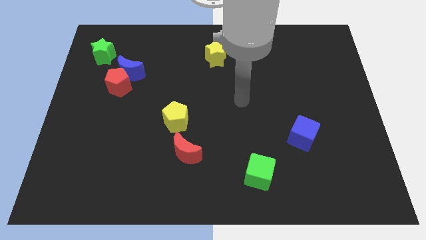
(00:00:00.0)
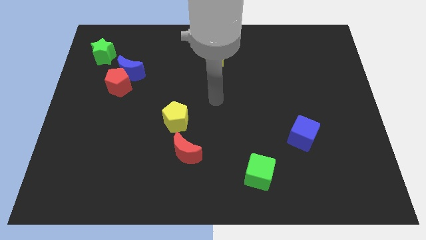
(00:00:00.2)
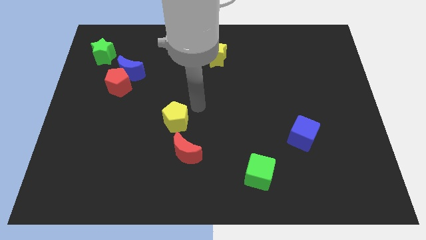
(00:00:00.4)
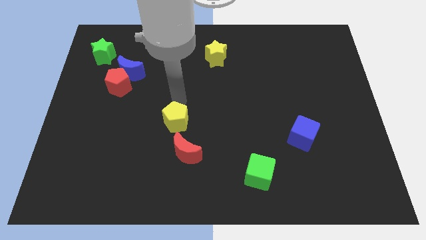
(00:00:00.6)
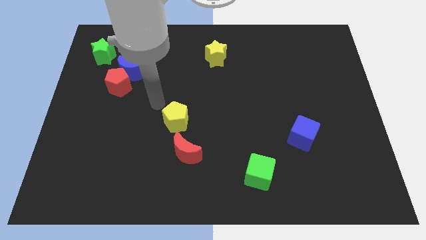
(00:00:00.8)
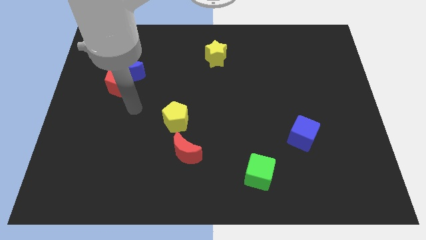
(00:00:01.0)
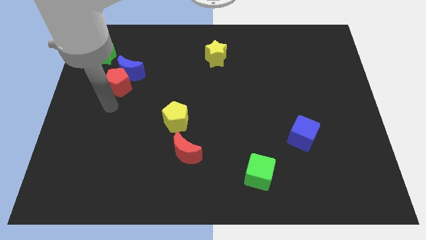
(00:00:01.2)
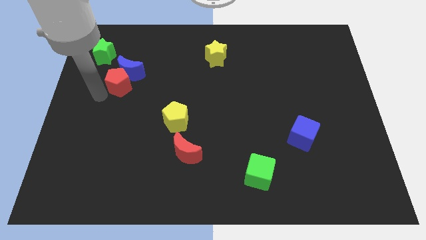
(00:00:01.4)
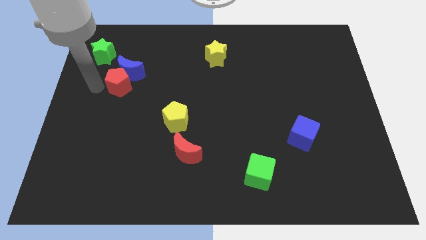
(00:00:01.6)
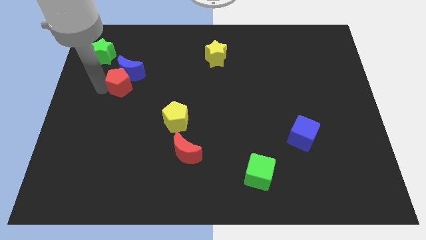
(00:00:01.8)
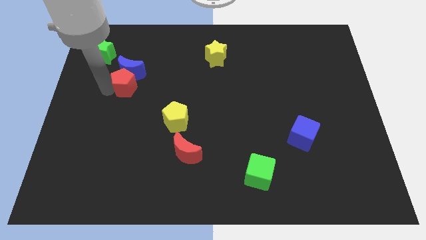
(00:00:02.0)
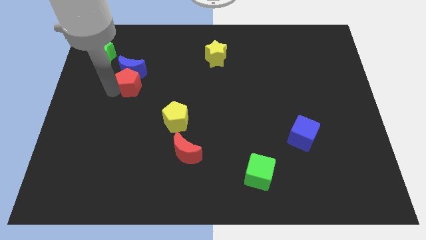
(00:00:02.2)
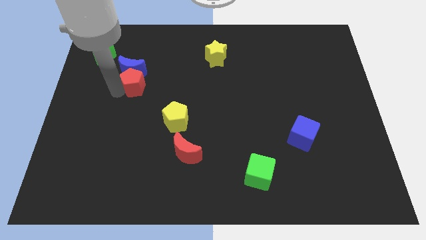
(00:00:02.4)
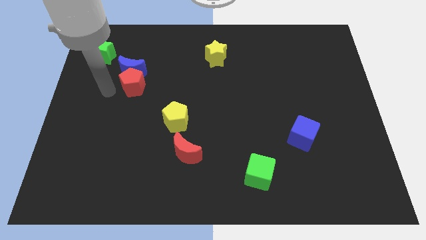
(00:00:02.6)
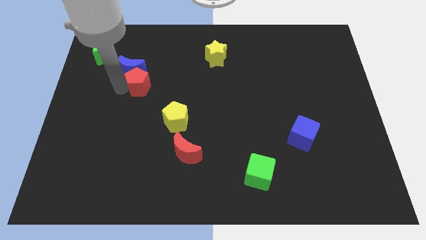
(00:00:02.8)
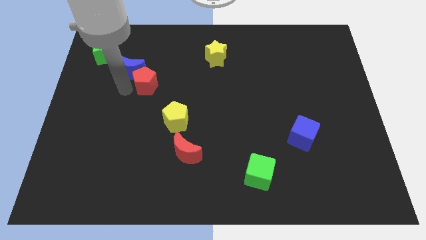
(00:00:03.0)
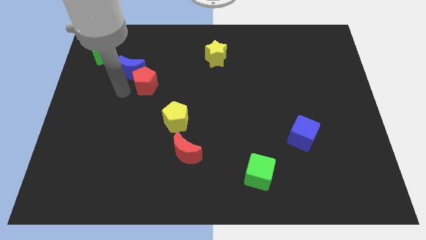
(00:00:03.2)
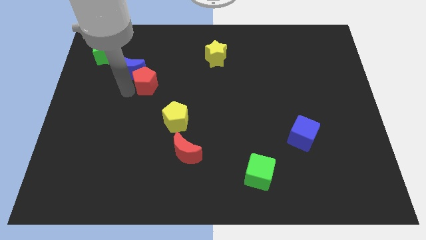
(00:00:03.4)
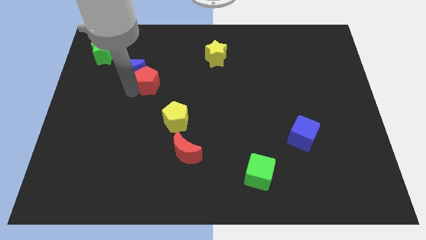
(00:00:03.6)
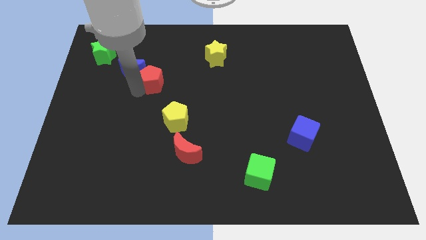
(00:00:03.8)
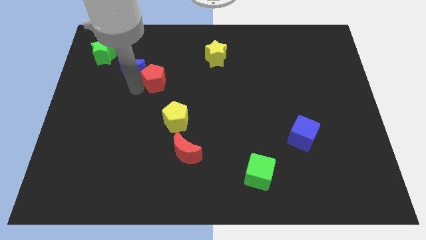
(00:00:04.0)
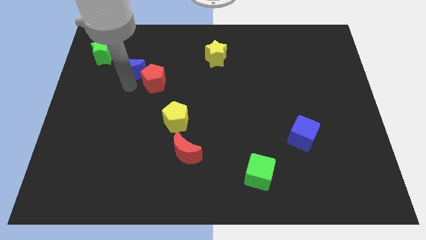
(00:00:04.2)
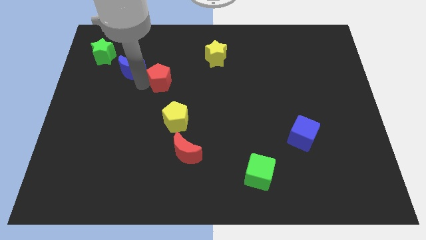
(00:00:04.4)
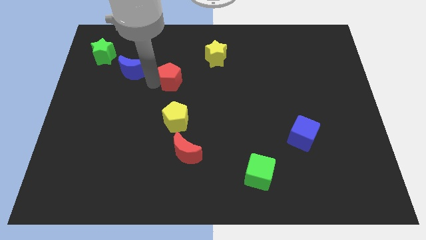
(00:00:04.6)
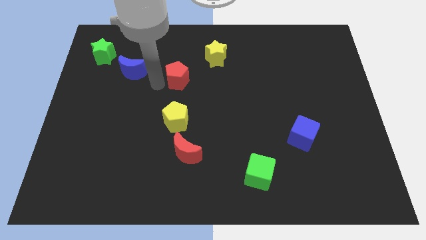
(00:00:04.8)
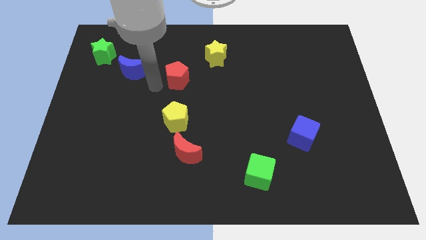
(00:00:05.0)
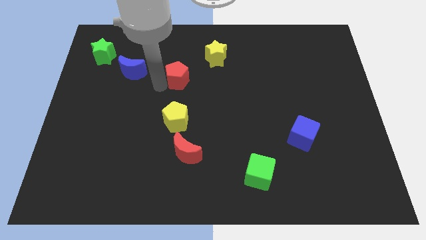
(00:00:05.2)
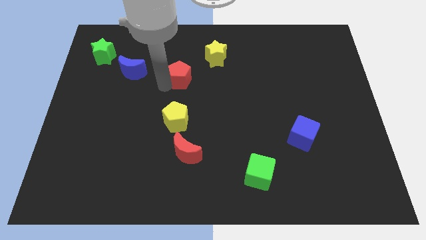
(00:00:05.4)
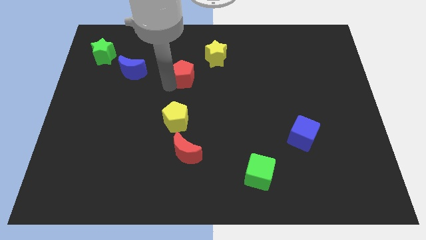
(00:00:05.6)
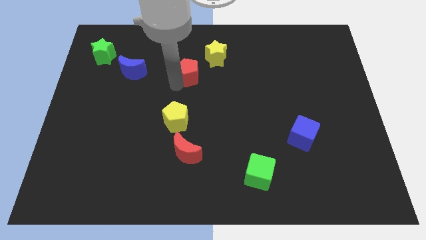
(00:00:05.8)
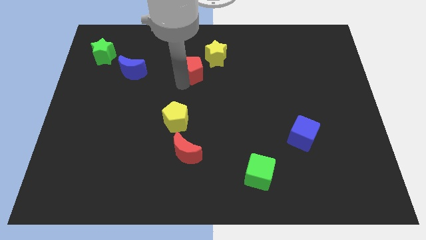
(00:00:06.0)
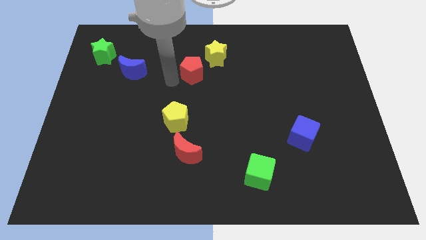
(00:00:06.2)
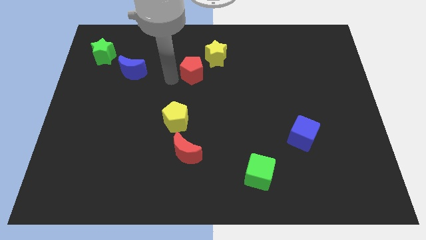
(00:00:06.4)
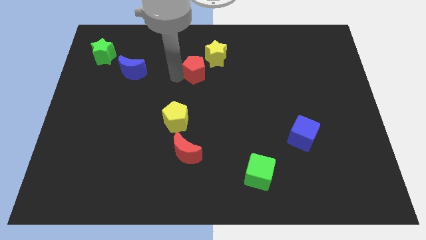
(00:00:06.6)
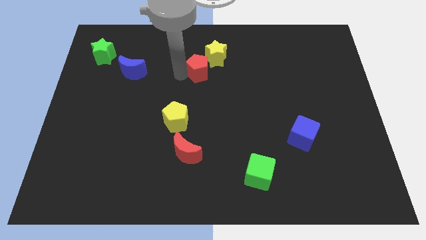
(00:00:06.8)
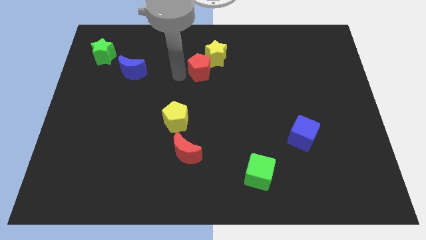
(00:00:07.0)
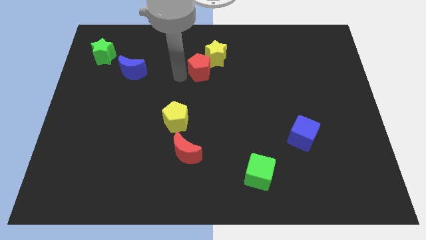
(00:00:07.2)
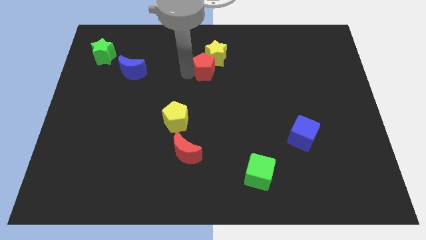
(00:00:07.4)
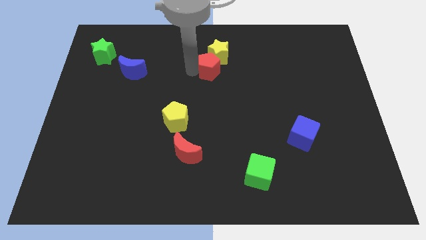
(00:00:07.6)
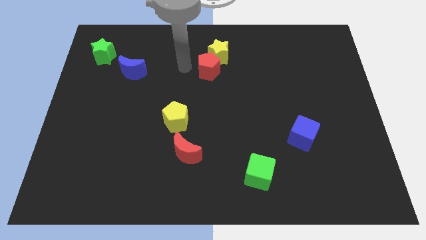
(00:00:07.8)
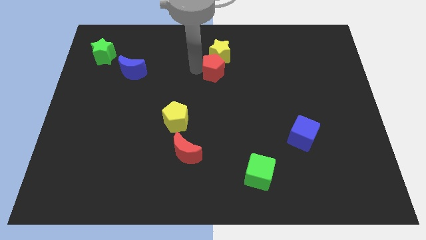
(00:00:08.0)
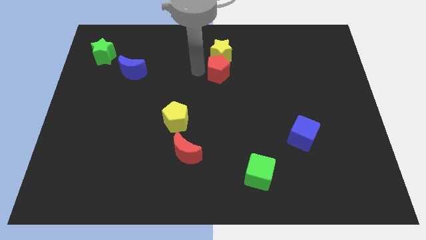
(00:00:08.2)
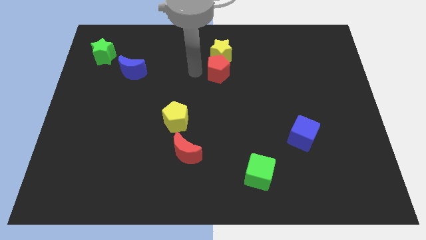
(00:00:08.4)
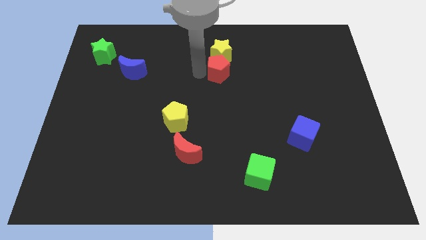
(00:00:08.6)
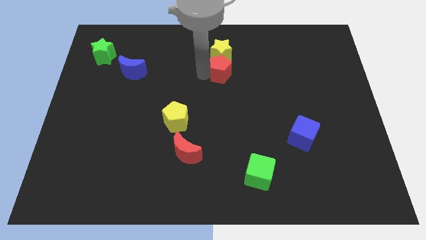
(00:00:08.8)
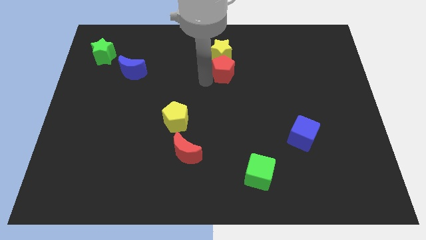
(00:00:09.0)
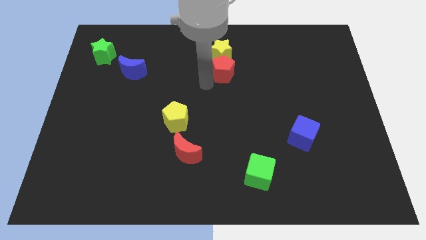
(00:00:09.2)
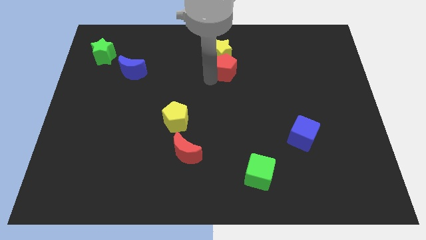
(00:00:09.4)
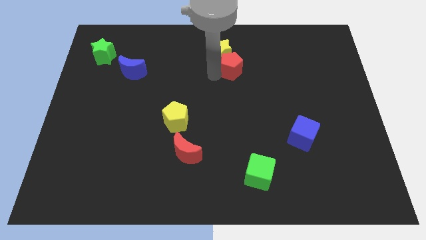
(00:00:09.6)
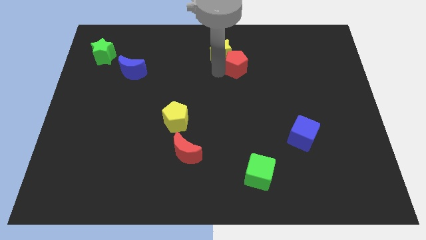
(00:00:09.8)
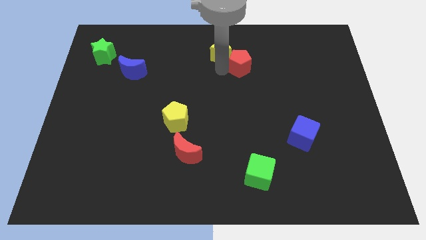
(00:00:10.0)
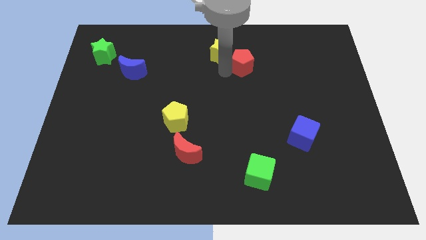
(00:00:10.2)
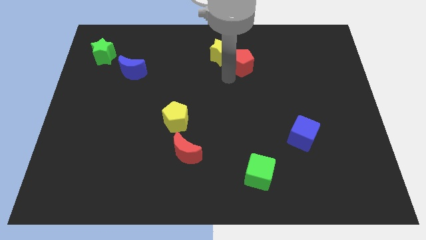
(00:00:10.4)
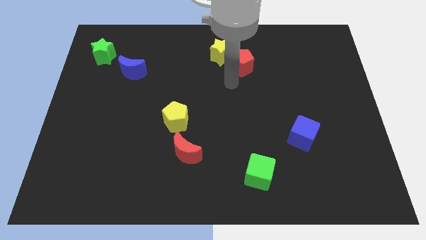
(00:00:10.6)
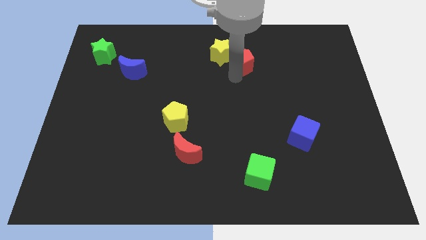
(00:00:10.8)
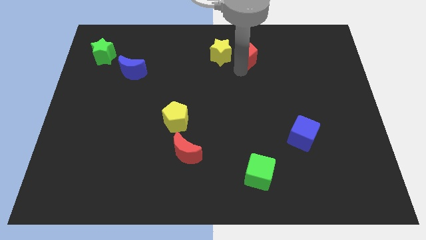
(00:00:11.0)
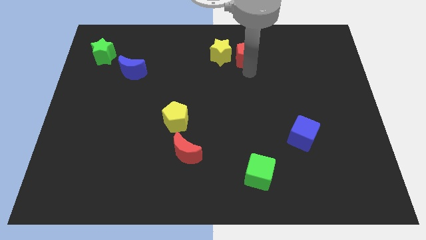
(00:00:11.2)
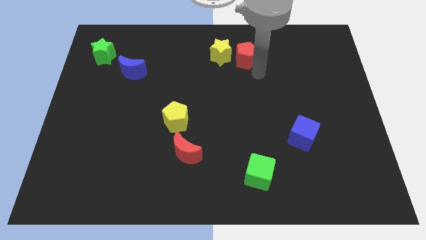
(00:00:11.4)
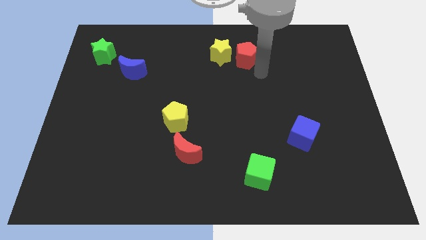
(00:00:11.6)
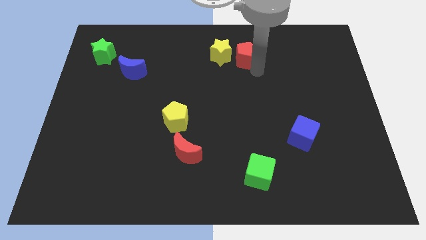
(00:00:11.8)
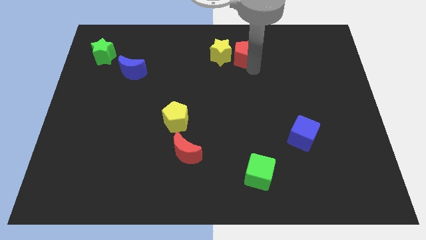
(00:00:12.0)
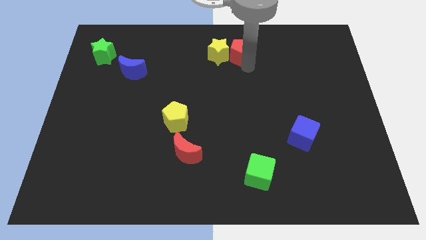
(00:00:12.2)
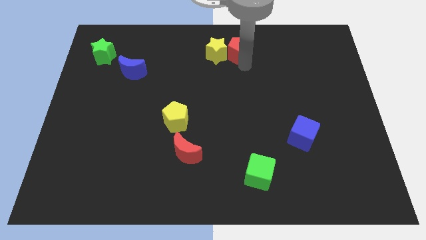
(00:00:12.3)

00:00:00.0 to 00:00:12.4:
move the red pentagon to the towards your base
